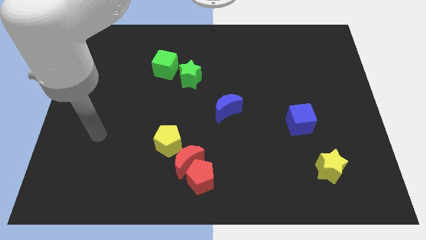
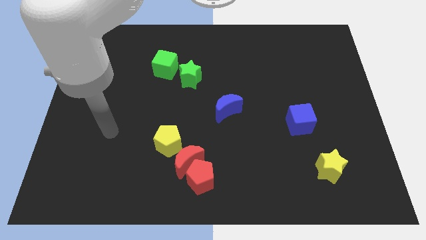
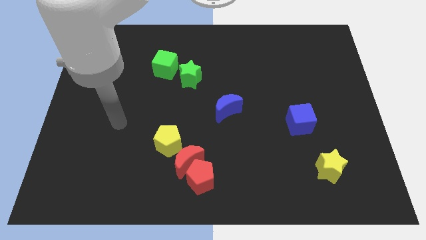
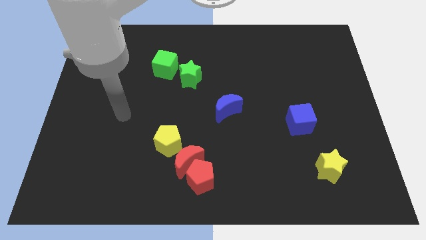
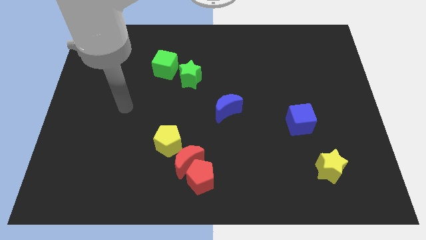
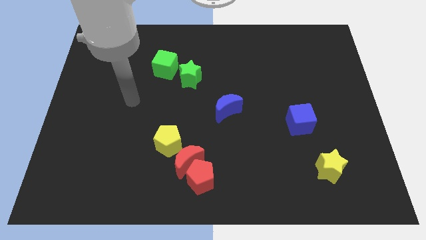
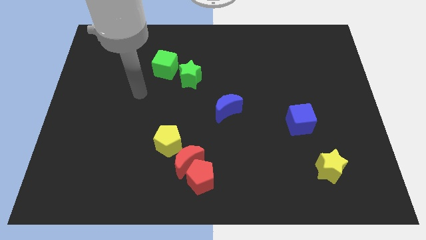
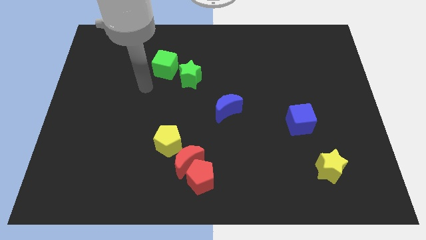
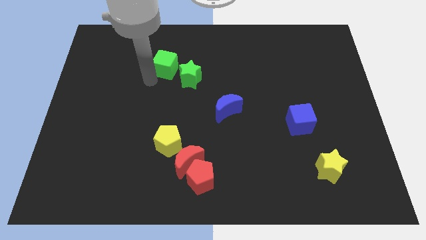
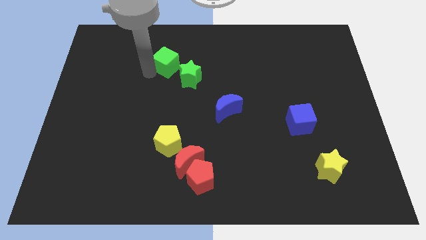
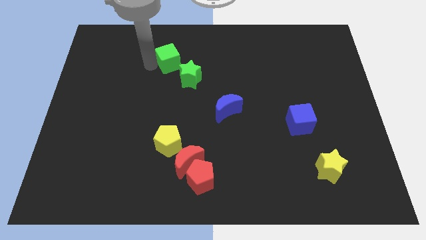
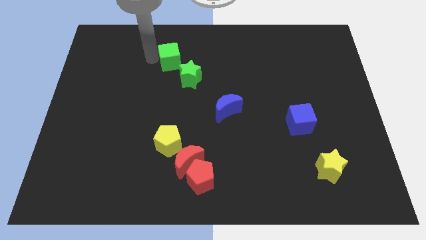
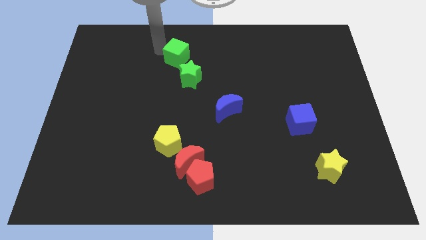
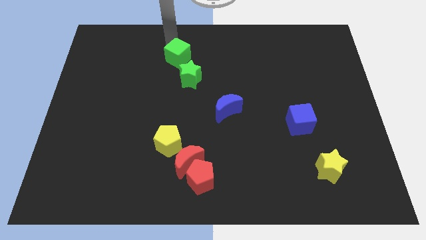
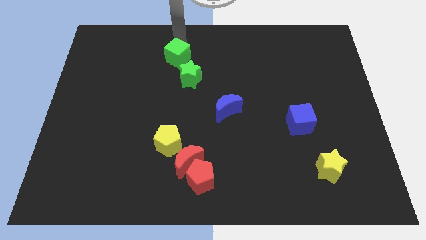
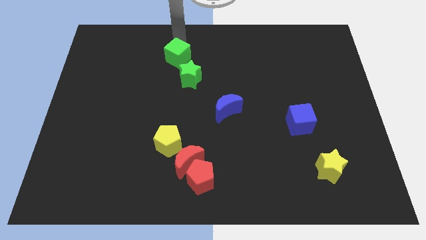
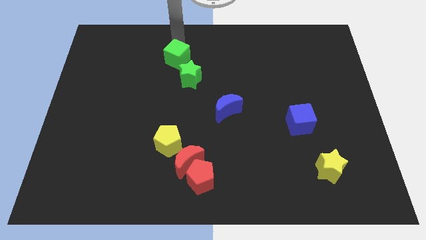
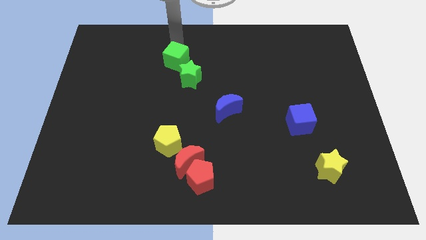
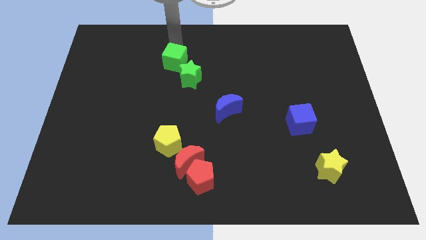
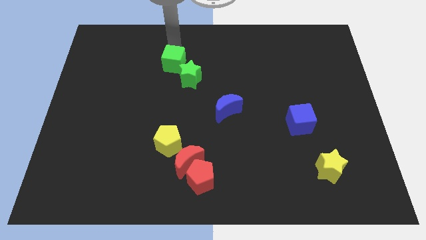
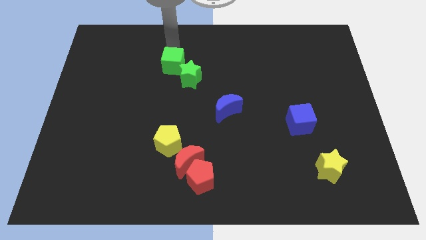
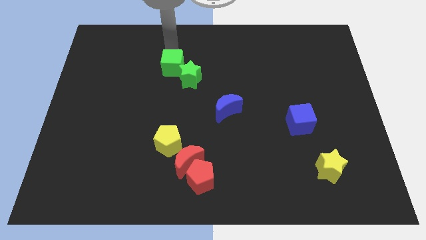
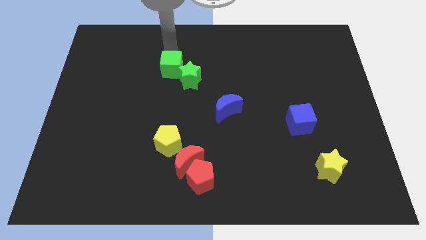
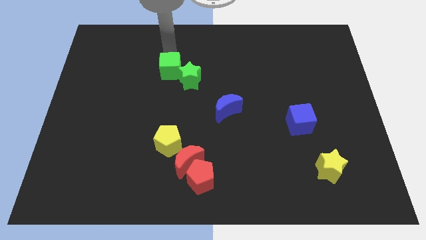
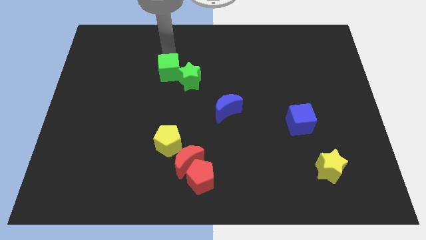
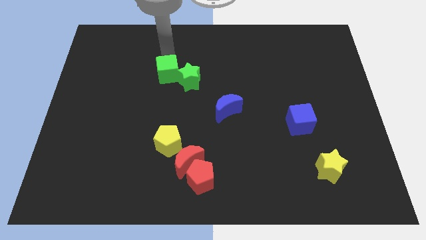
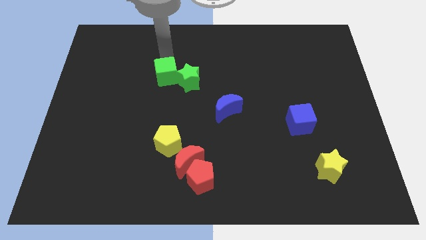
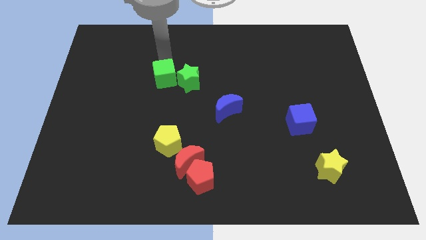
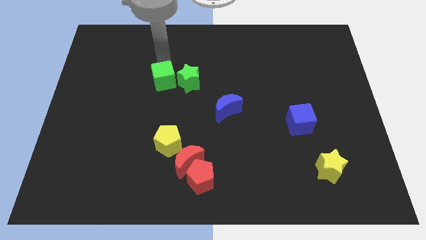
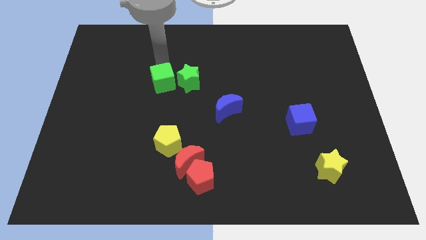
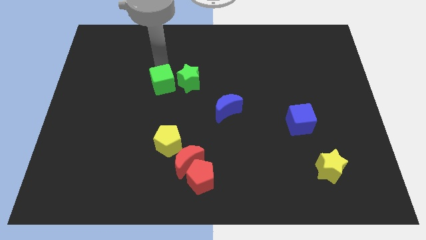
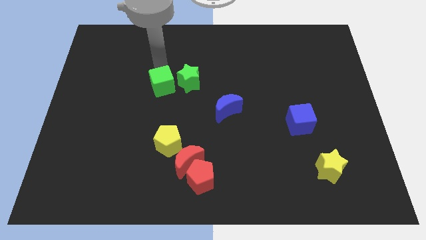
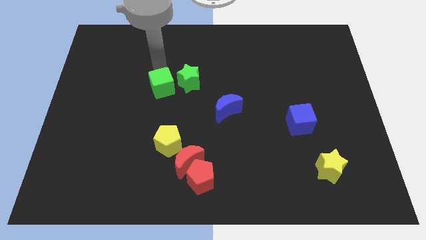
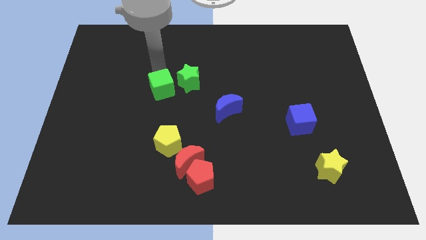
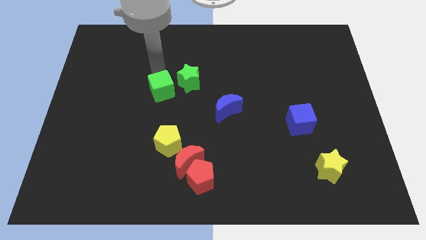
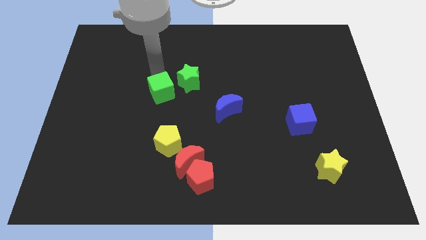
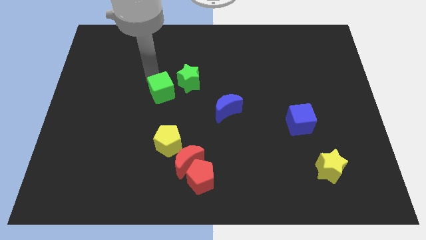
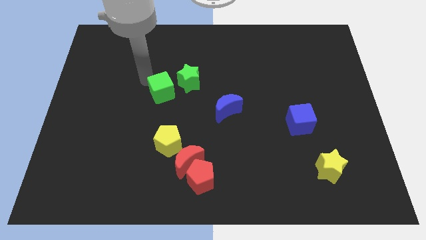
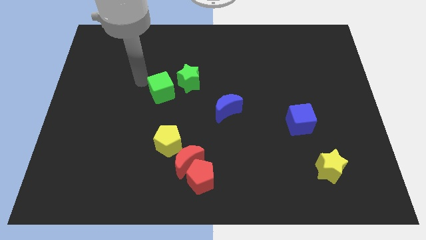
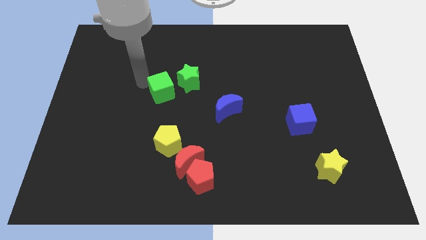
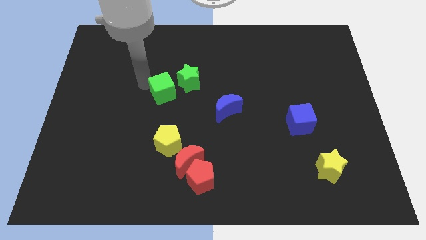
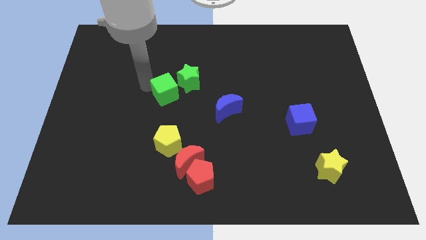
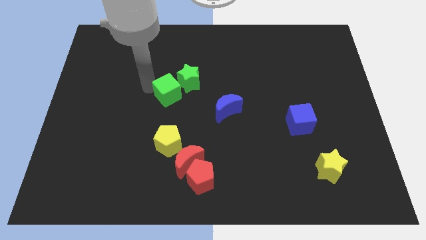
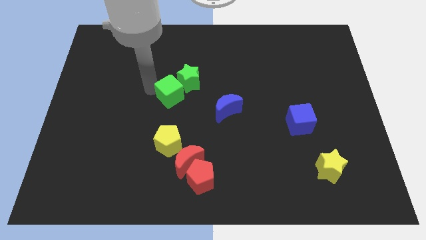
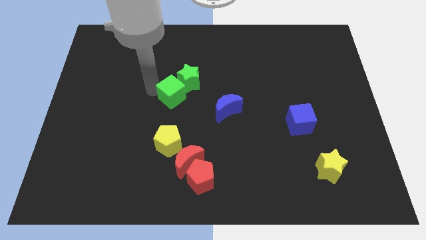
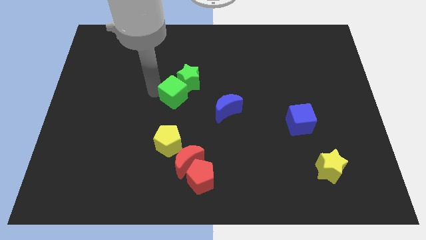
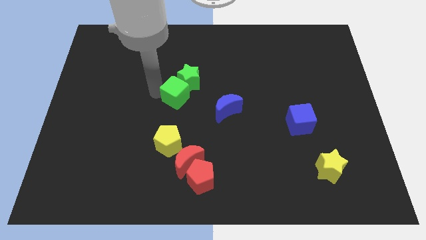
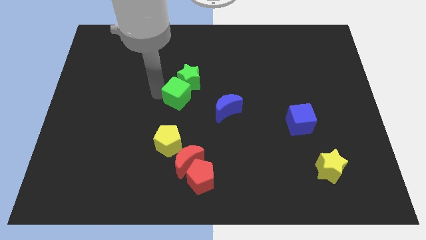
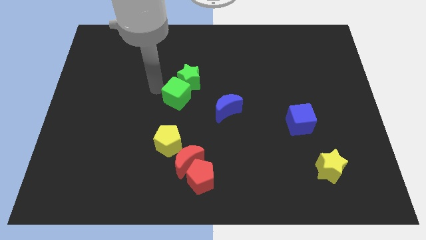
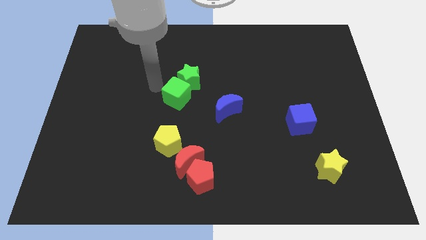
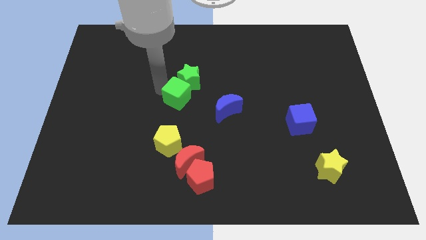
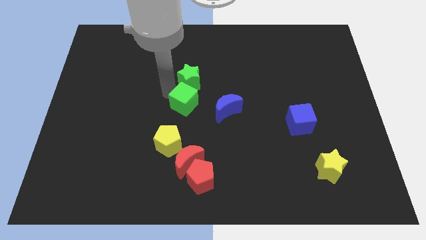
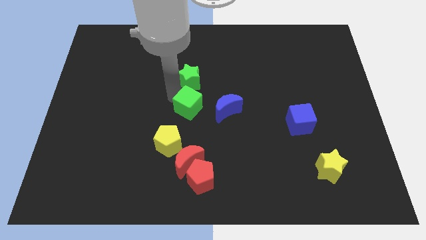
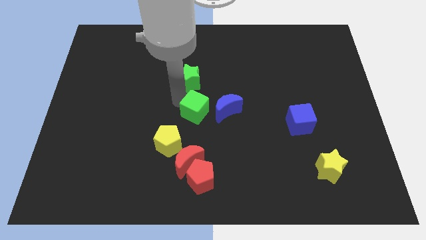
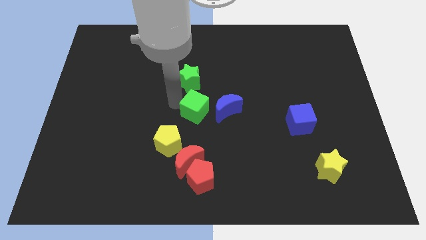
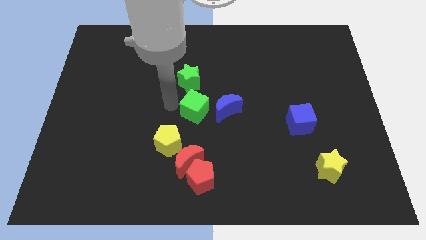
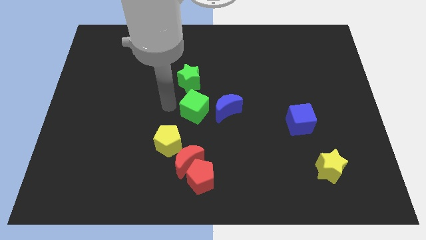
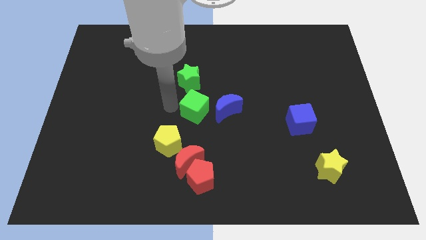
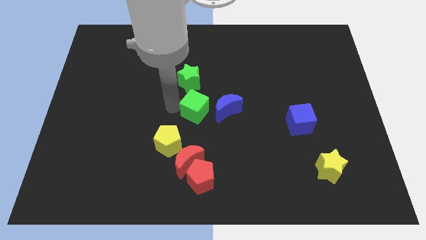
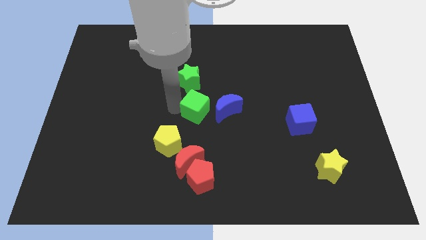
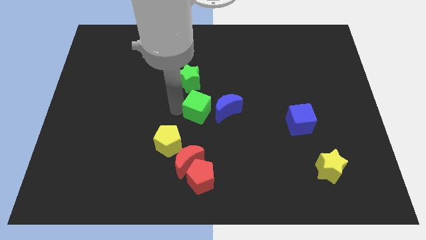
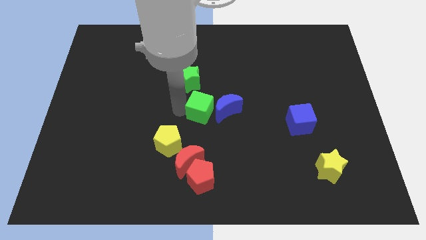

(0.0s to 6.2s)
slide the green cube close to the blue moon

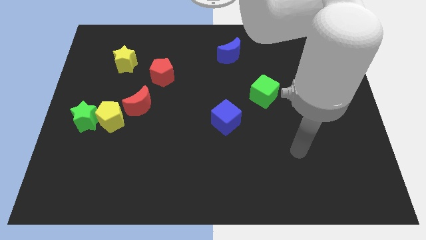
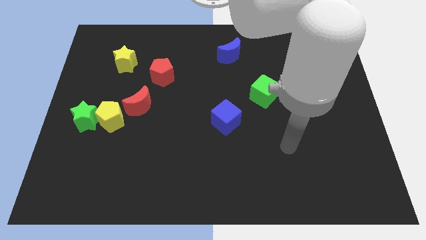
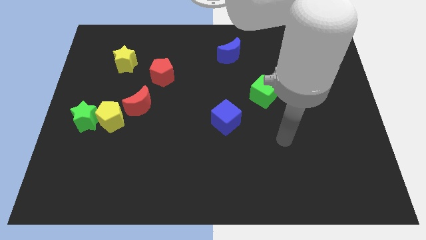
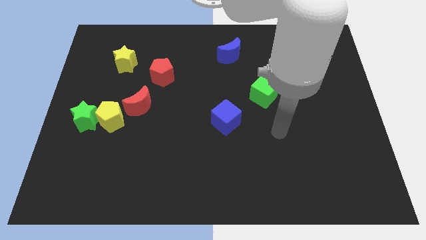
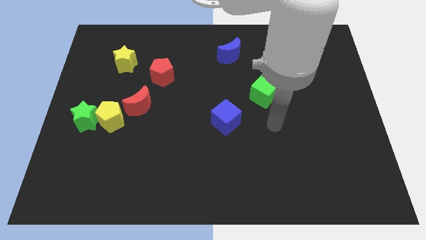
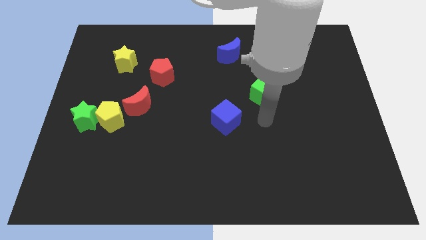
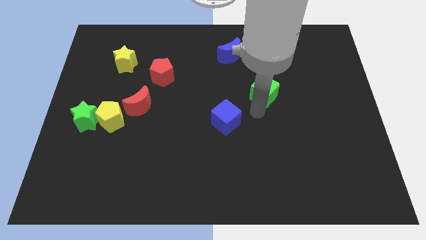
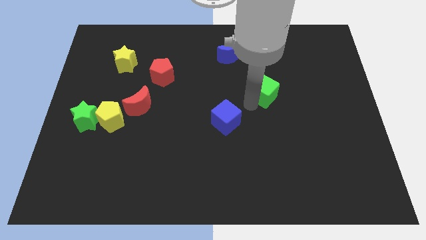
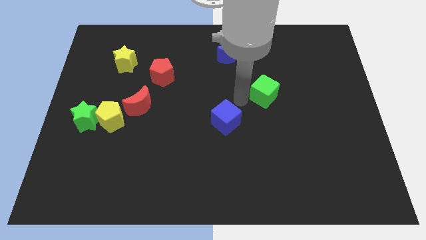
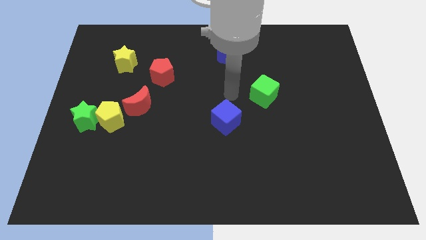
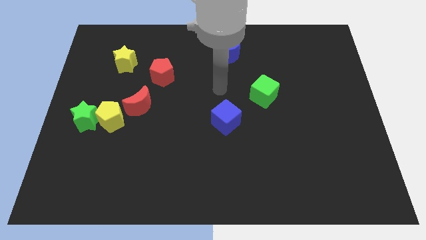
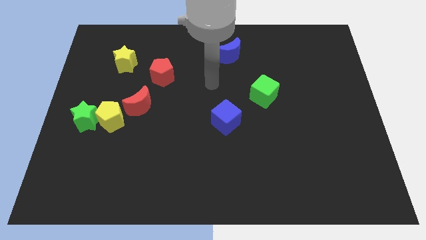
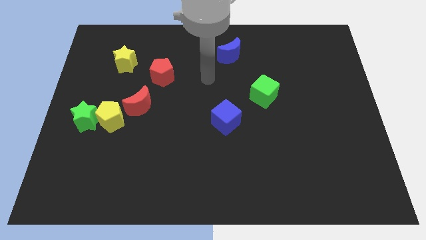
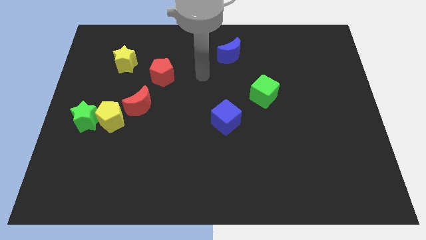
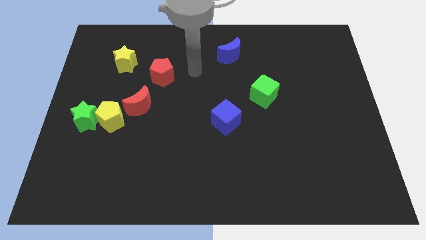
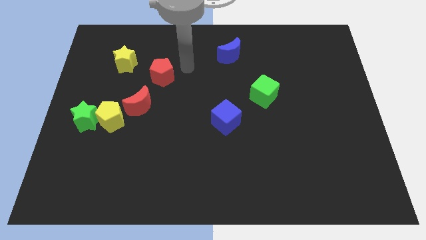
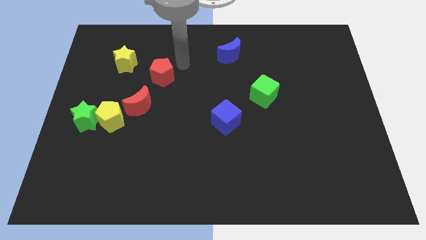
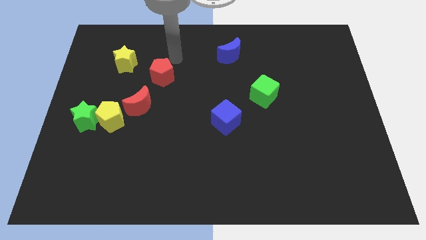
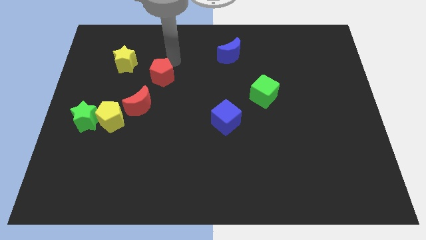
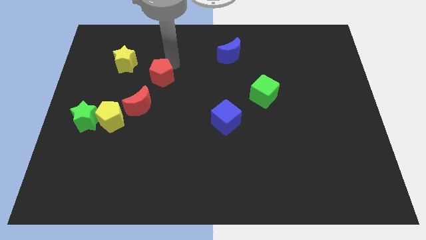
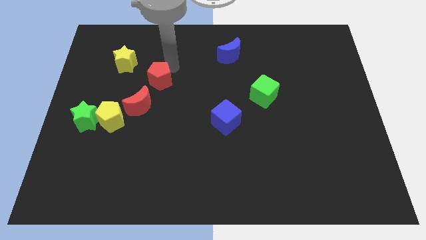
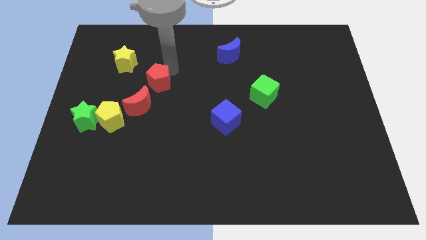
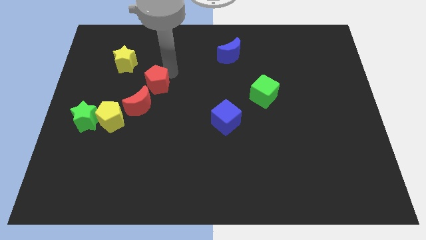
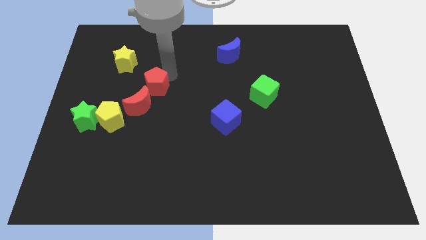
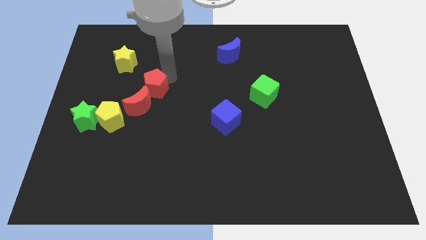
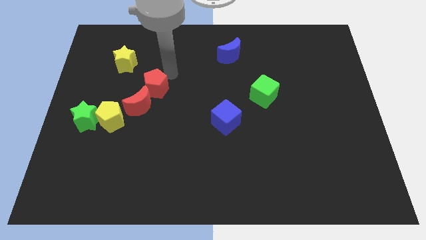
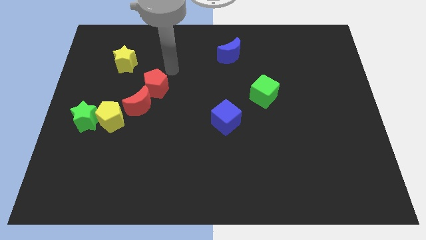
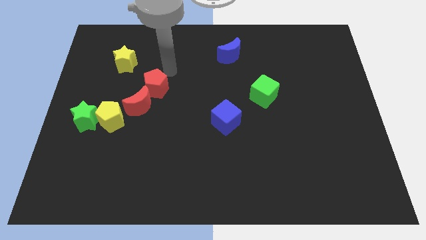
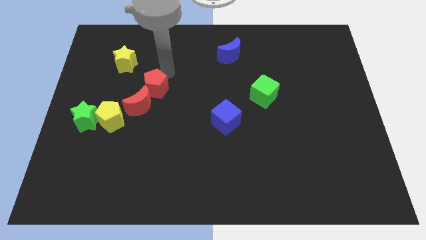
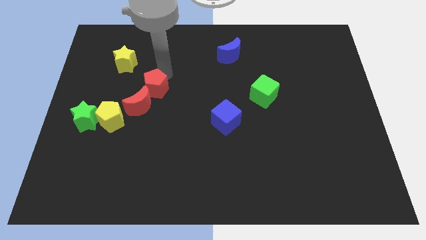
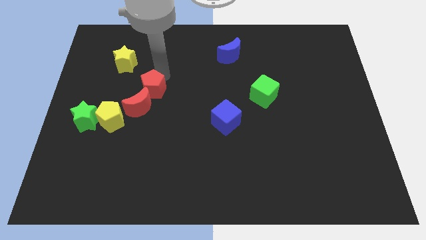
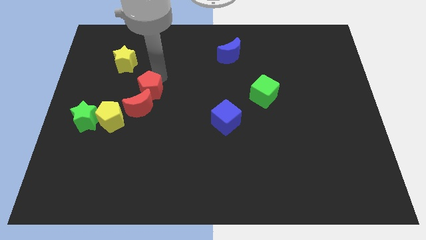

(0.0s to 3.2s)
put the red pentagon next to the red moon
